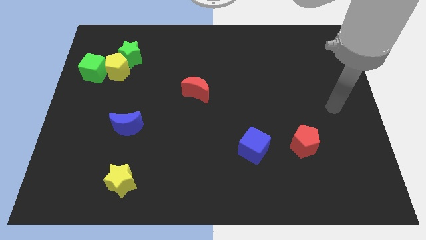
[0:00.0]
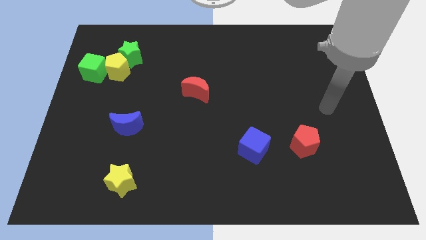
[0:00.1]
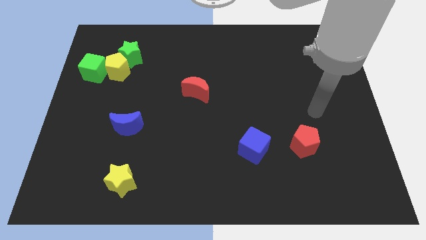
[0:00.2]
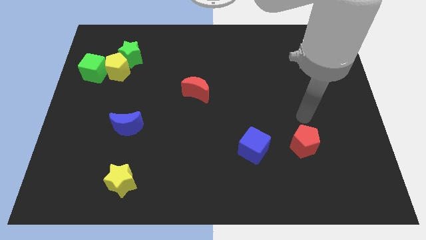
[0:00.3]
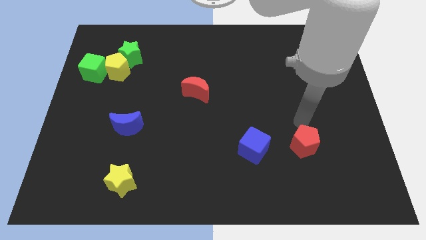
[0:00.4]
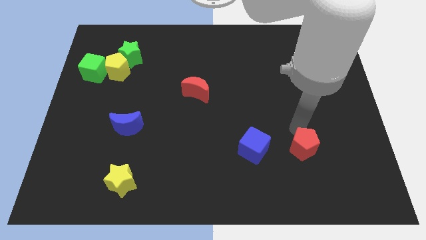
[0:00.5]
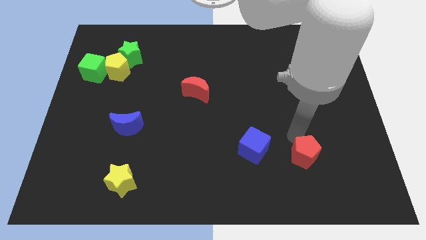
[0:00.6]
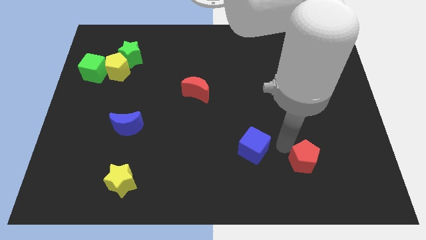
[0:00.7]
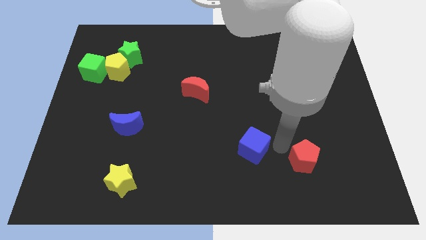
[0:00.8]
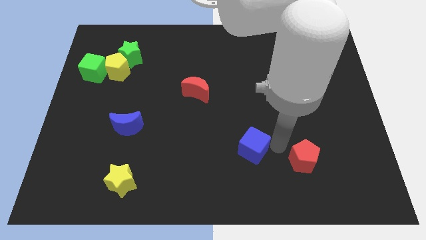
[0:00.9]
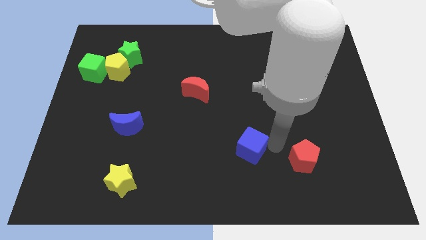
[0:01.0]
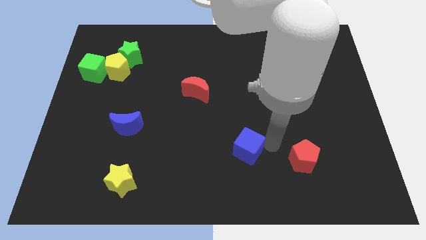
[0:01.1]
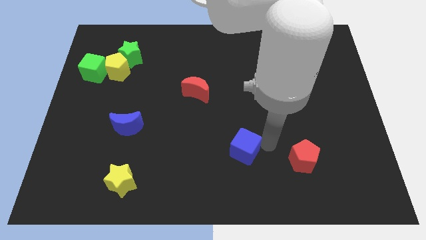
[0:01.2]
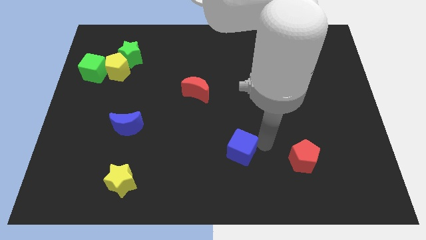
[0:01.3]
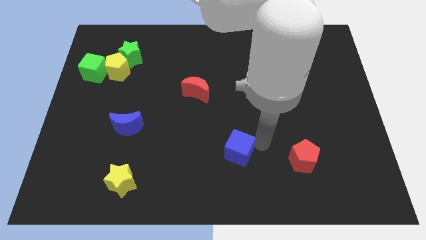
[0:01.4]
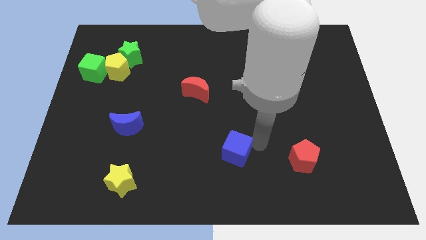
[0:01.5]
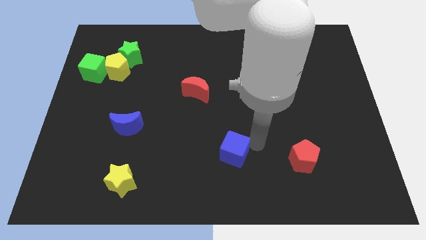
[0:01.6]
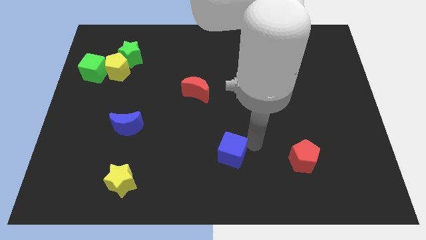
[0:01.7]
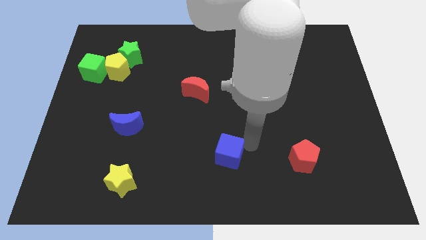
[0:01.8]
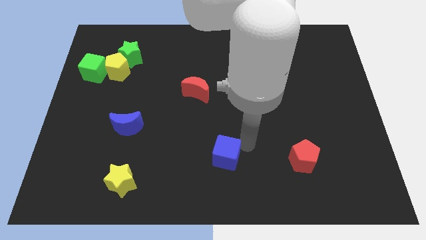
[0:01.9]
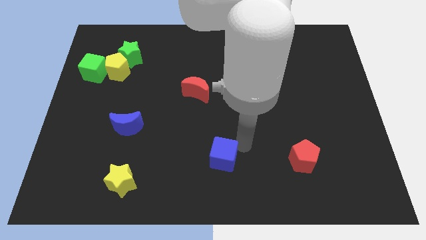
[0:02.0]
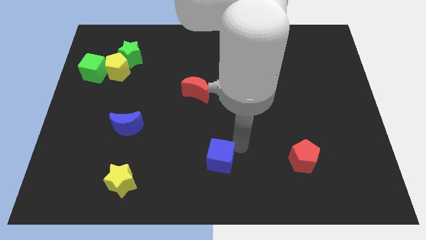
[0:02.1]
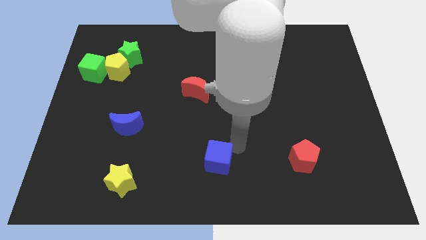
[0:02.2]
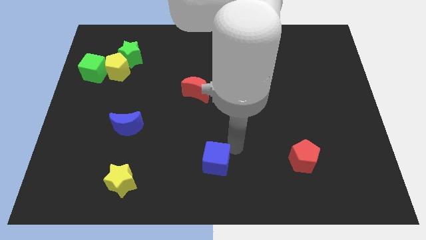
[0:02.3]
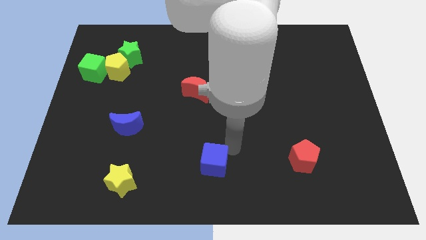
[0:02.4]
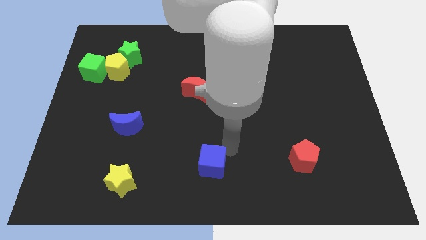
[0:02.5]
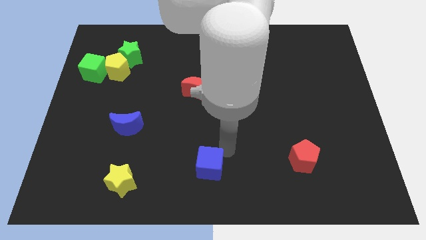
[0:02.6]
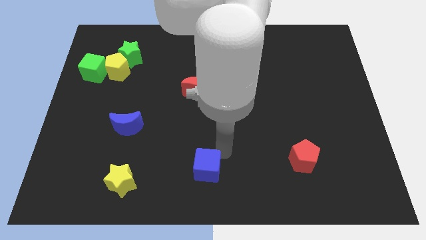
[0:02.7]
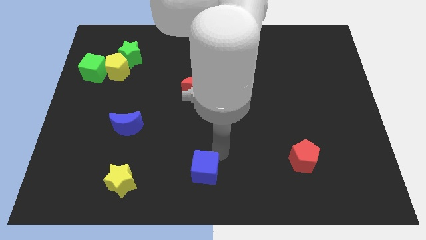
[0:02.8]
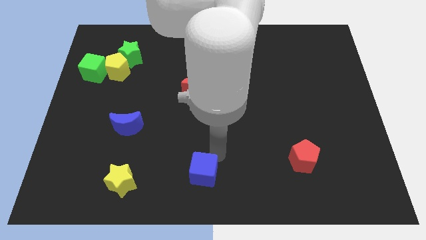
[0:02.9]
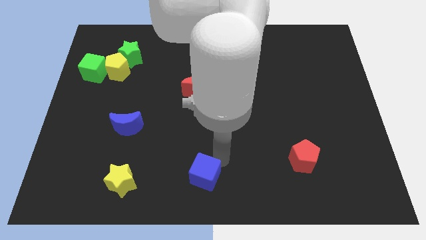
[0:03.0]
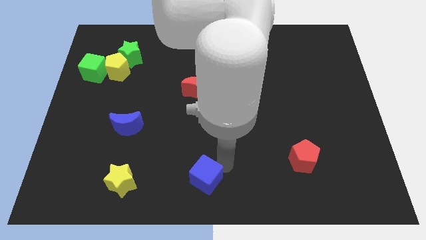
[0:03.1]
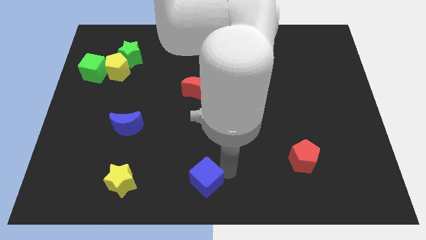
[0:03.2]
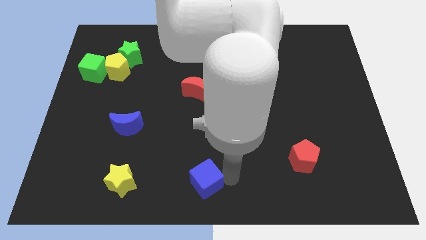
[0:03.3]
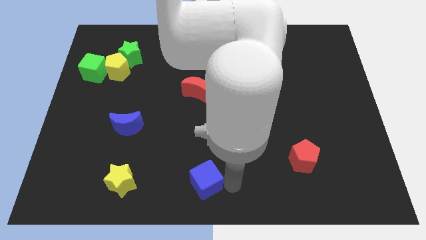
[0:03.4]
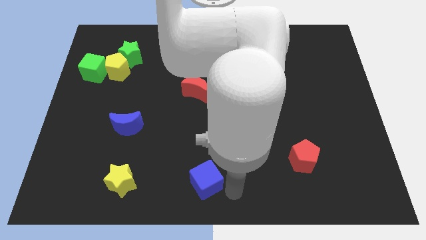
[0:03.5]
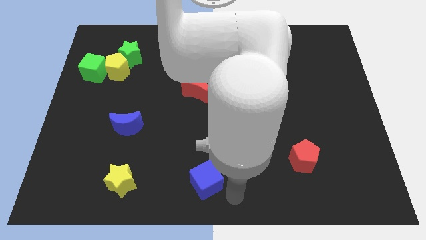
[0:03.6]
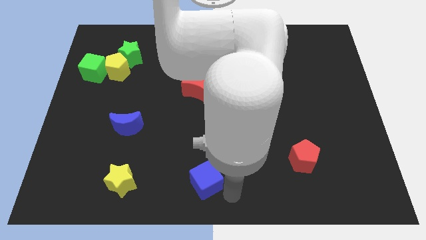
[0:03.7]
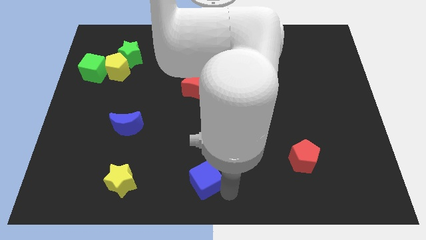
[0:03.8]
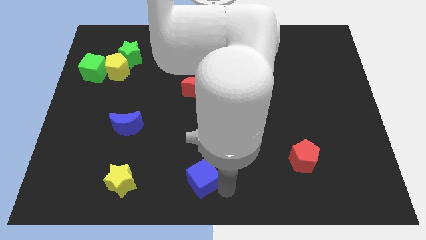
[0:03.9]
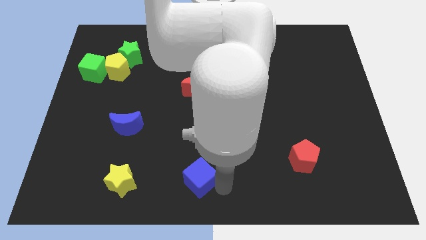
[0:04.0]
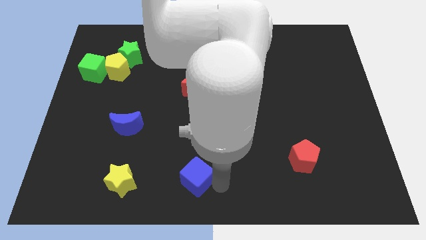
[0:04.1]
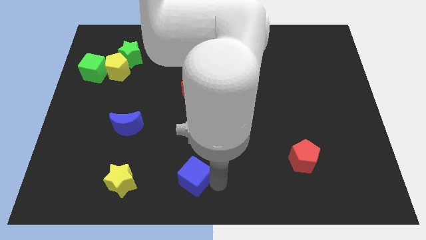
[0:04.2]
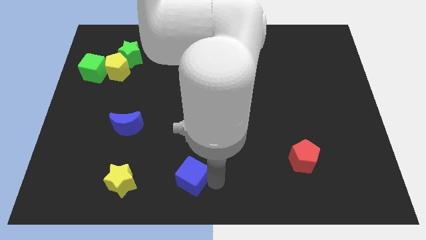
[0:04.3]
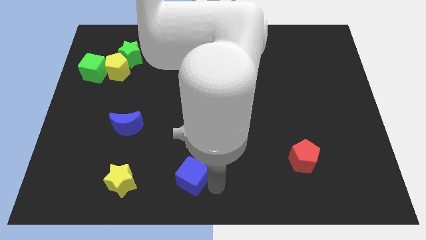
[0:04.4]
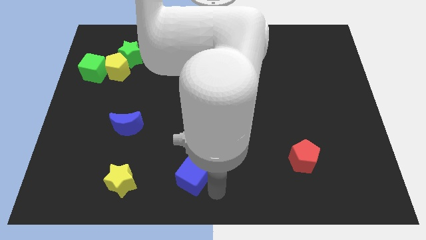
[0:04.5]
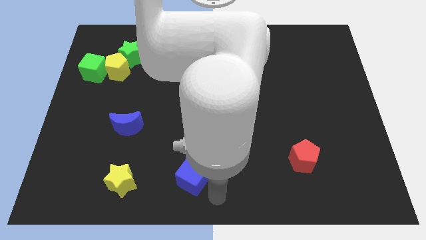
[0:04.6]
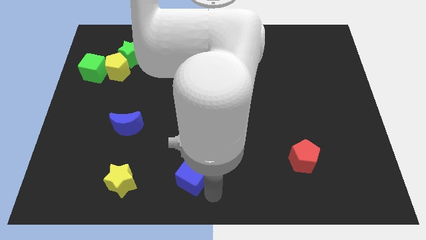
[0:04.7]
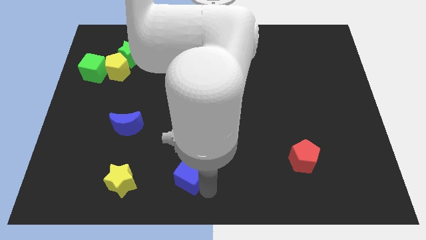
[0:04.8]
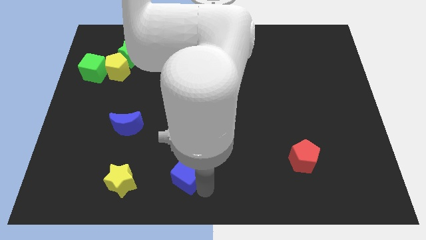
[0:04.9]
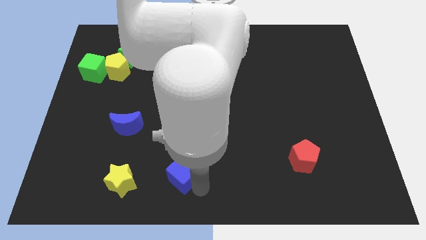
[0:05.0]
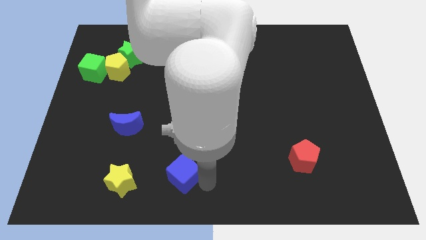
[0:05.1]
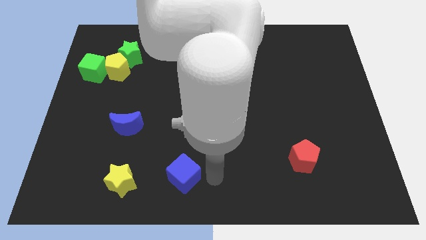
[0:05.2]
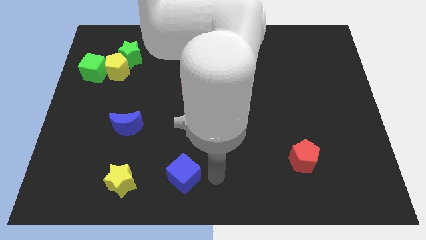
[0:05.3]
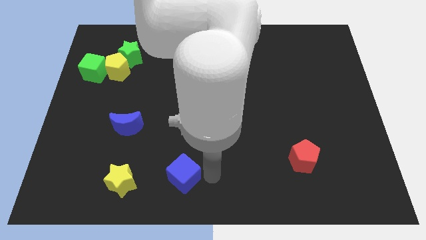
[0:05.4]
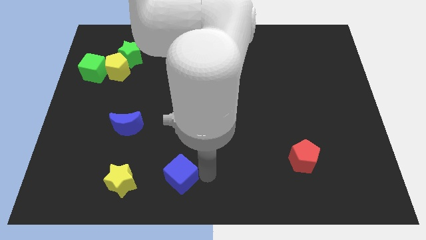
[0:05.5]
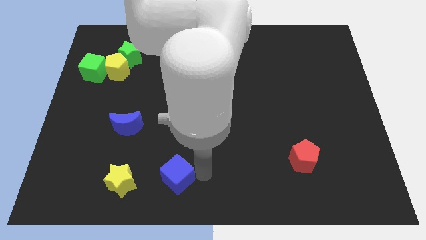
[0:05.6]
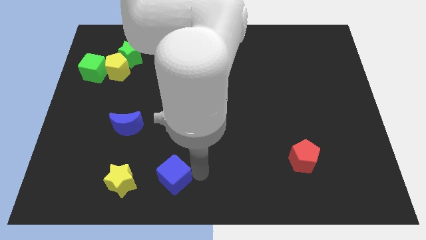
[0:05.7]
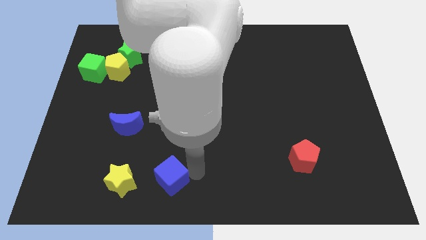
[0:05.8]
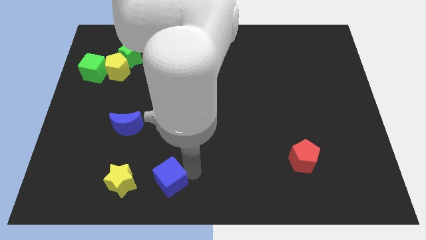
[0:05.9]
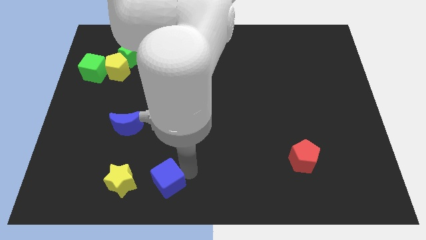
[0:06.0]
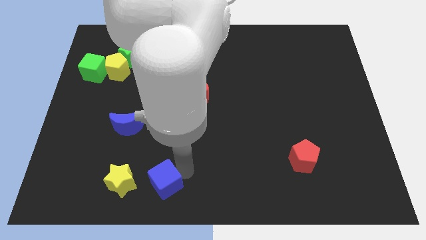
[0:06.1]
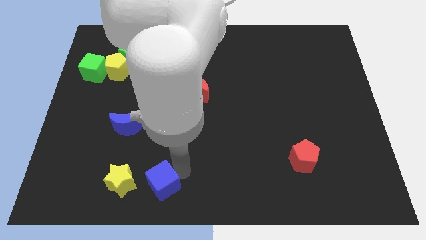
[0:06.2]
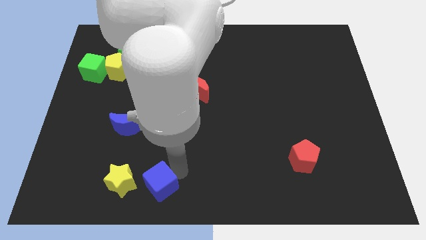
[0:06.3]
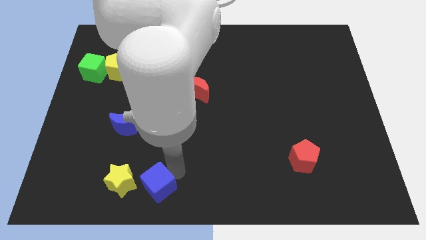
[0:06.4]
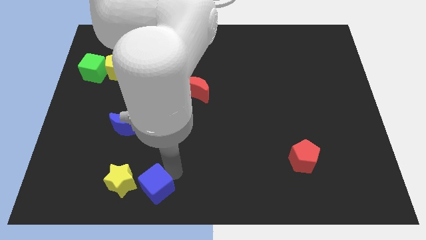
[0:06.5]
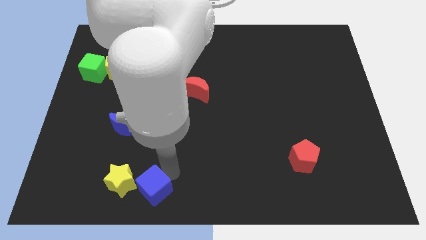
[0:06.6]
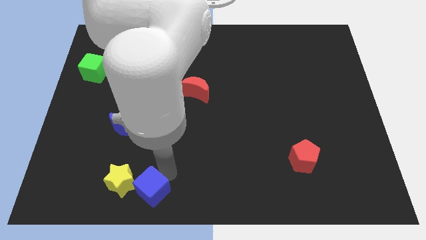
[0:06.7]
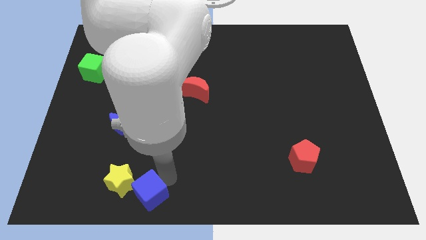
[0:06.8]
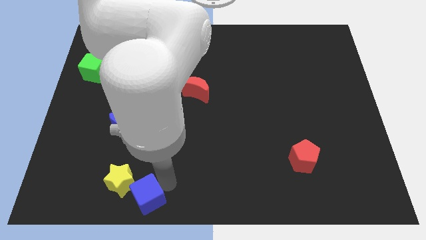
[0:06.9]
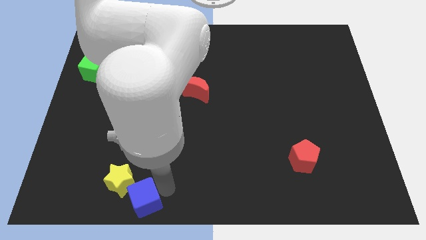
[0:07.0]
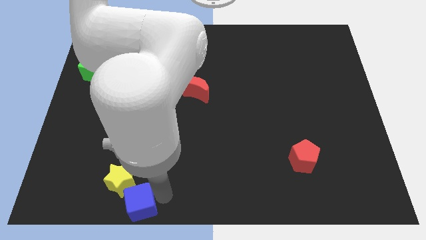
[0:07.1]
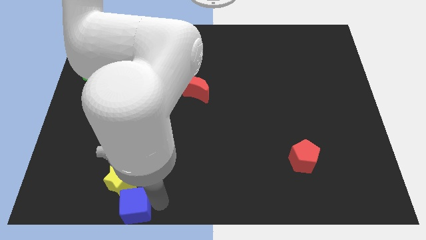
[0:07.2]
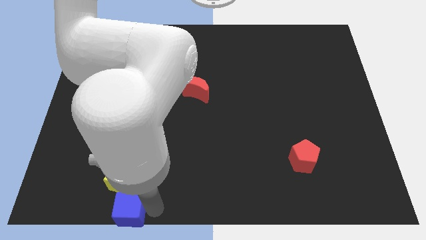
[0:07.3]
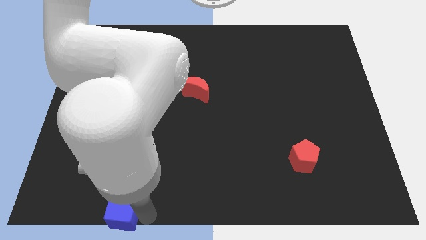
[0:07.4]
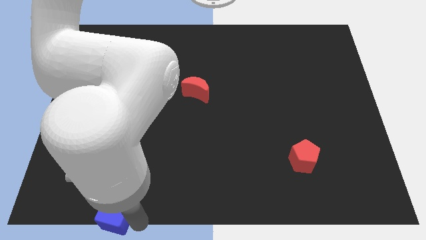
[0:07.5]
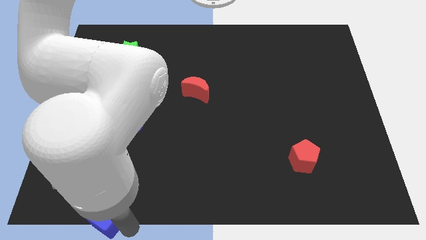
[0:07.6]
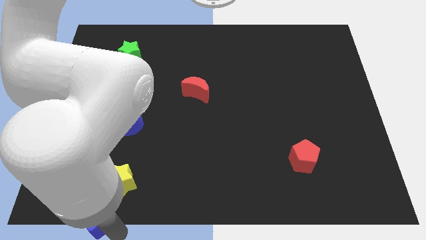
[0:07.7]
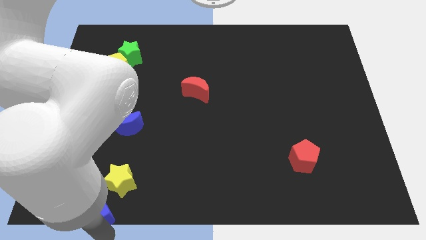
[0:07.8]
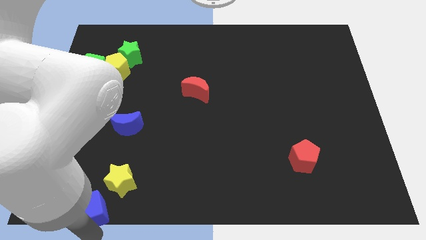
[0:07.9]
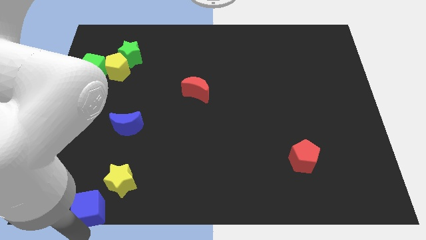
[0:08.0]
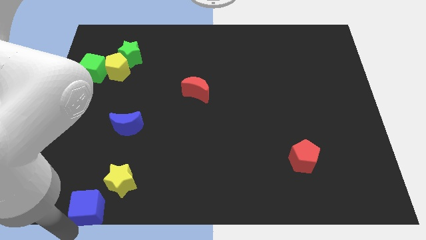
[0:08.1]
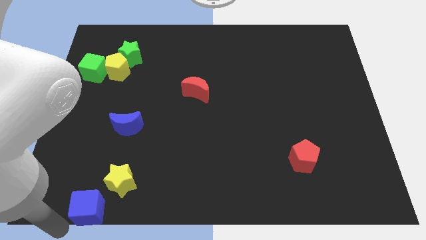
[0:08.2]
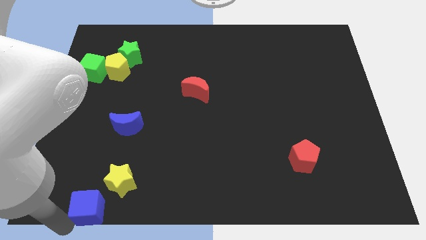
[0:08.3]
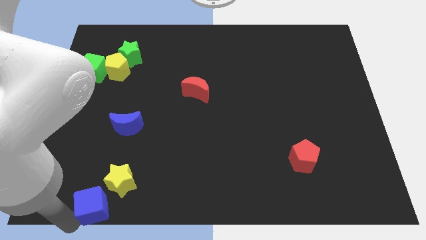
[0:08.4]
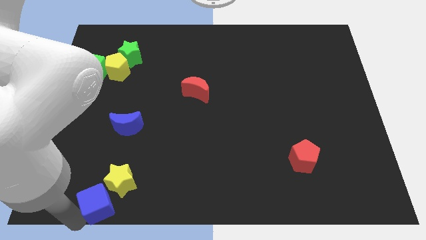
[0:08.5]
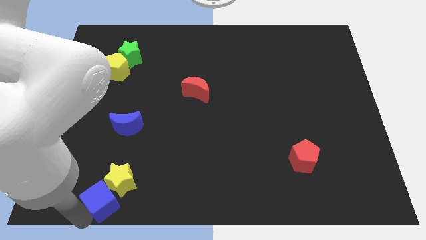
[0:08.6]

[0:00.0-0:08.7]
slide the blue cube next to the yellow star
